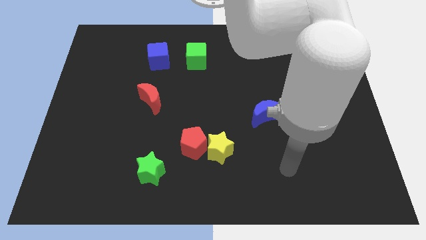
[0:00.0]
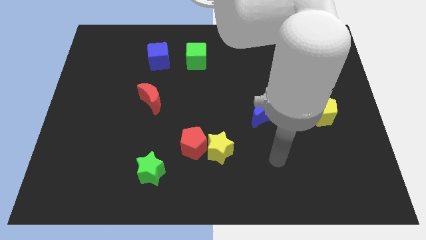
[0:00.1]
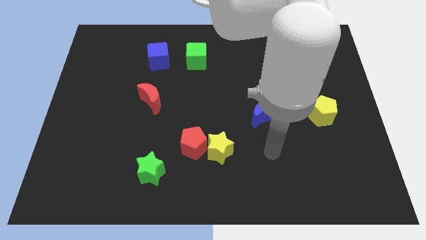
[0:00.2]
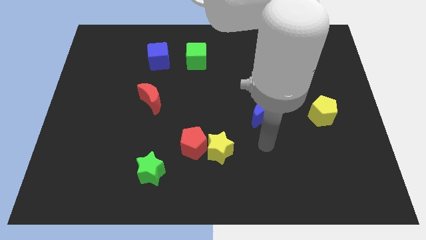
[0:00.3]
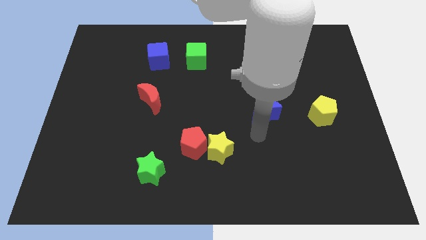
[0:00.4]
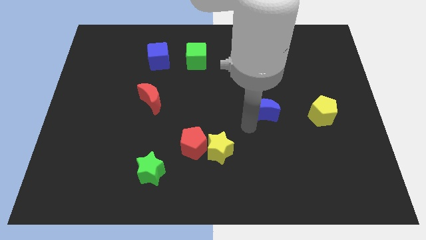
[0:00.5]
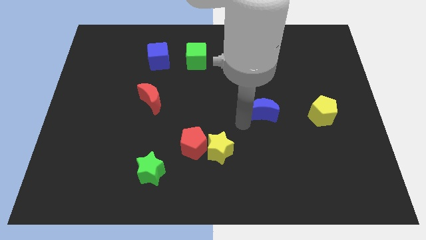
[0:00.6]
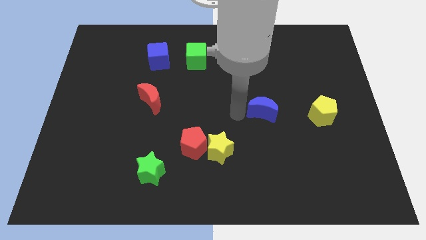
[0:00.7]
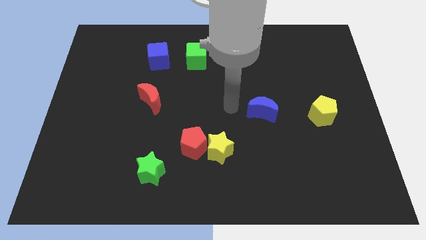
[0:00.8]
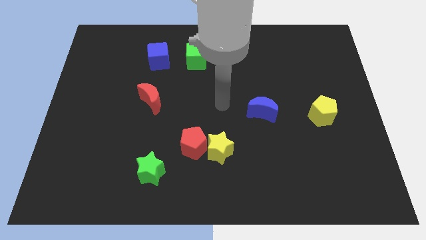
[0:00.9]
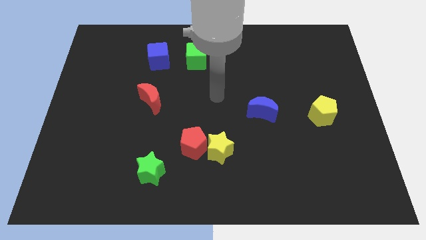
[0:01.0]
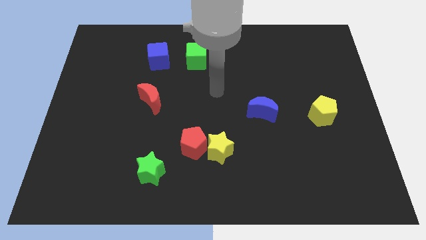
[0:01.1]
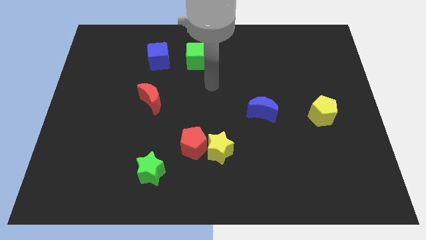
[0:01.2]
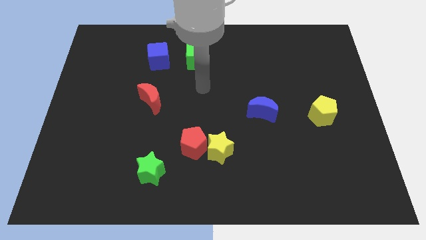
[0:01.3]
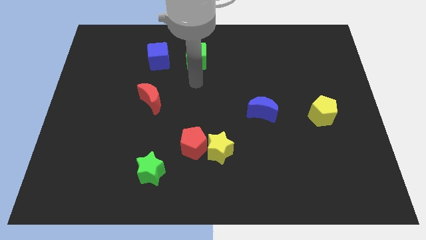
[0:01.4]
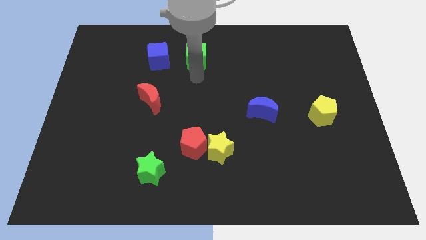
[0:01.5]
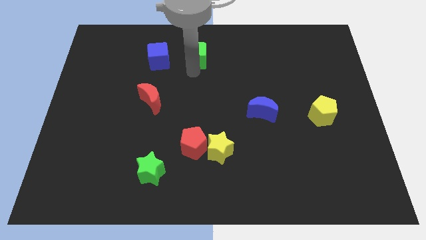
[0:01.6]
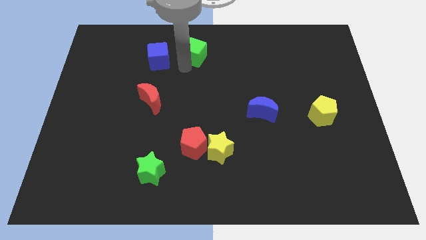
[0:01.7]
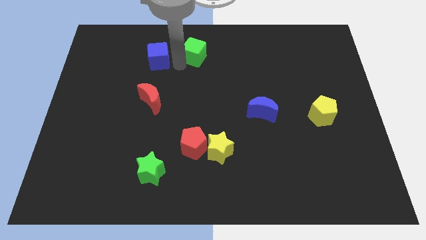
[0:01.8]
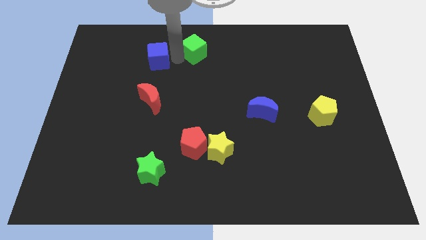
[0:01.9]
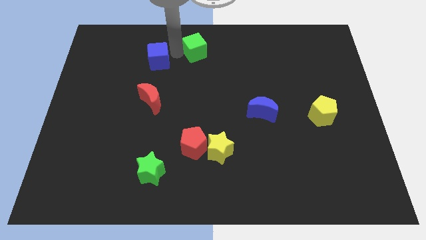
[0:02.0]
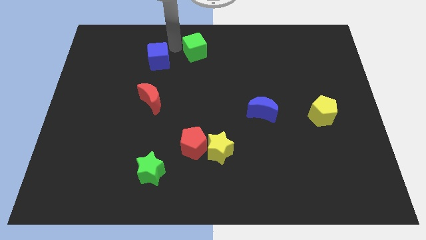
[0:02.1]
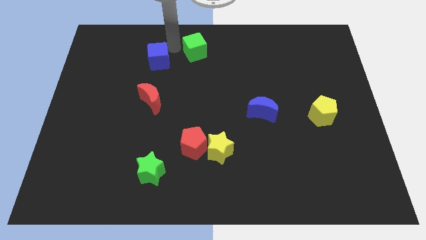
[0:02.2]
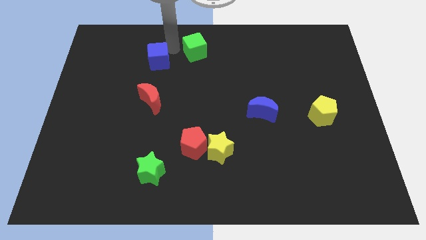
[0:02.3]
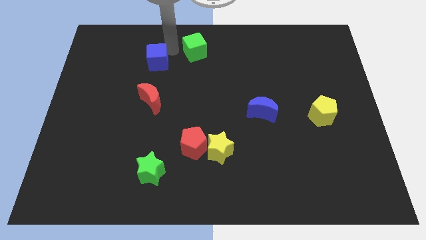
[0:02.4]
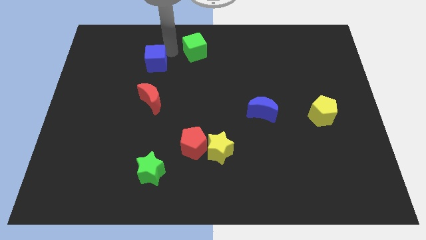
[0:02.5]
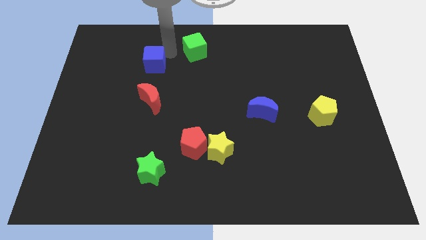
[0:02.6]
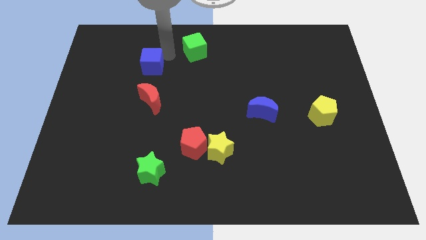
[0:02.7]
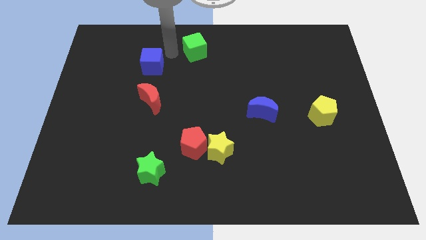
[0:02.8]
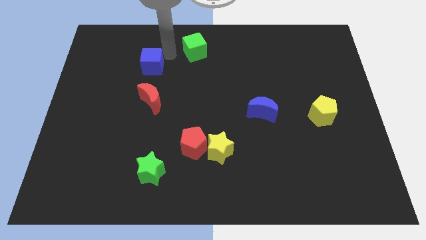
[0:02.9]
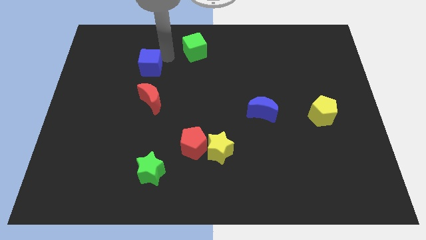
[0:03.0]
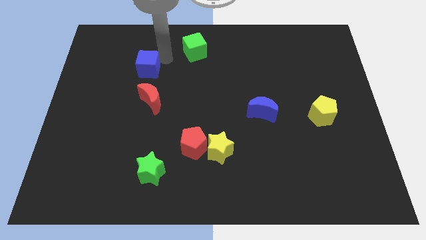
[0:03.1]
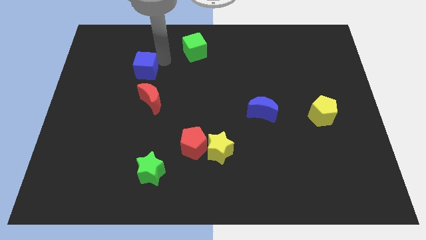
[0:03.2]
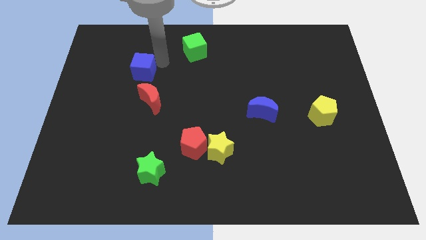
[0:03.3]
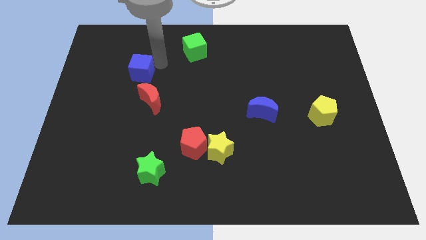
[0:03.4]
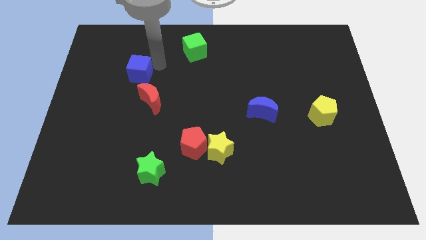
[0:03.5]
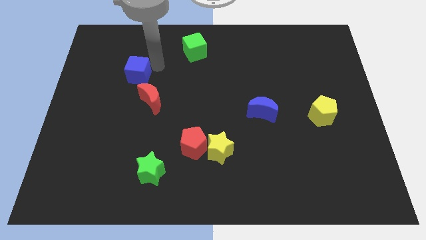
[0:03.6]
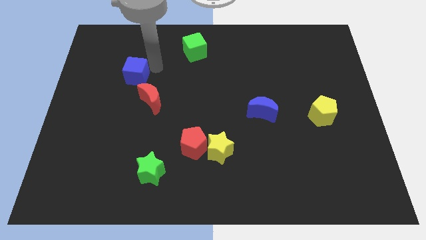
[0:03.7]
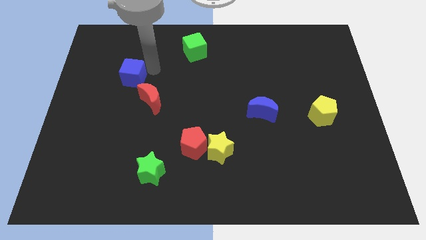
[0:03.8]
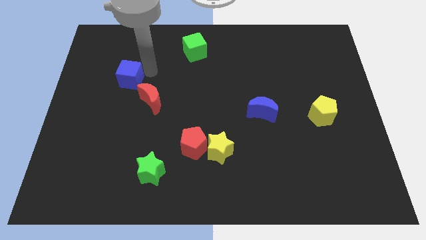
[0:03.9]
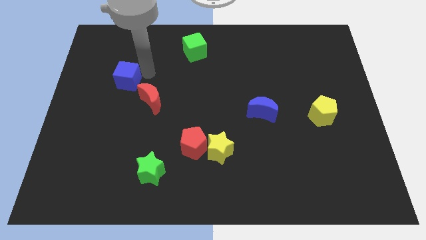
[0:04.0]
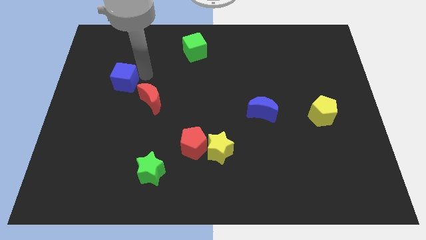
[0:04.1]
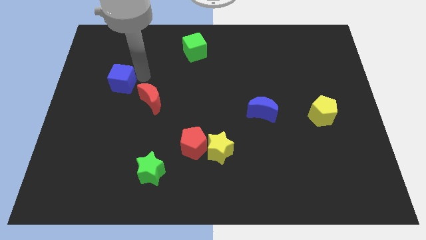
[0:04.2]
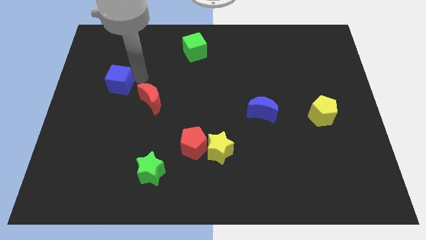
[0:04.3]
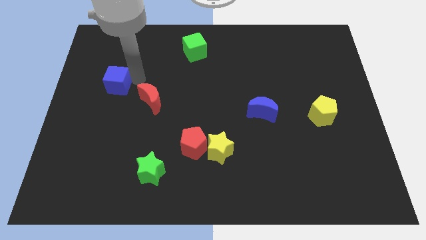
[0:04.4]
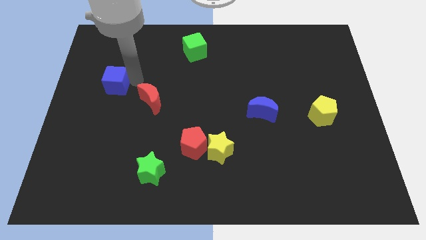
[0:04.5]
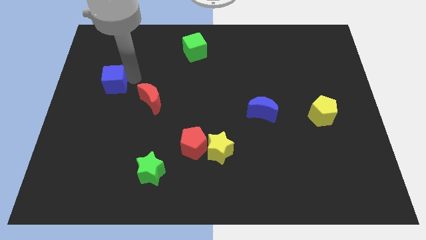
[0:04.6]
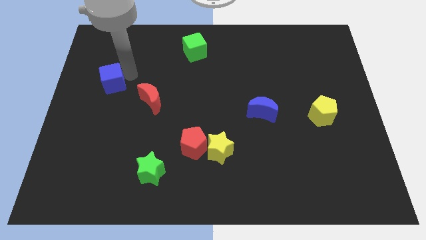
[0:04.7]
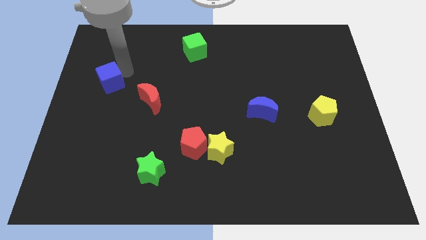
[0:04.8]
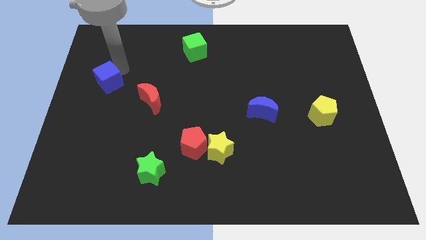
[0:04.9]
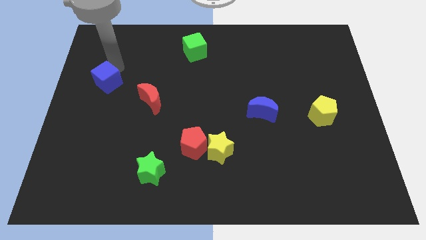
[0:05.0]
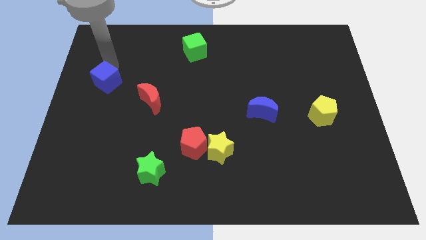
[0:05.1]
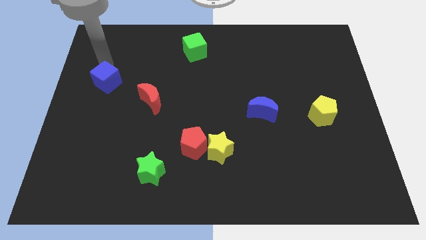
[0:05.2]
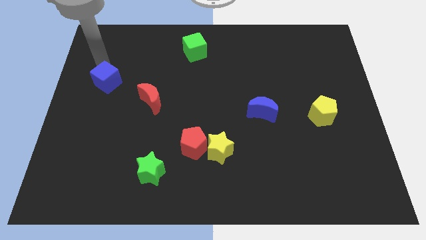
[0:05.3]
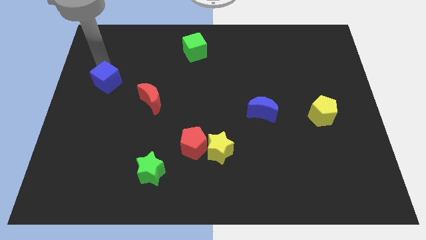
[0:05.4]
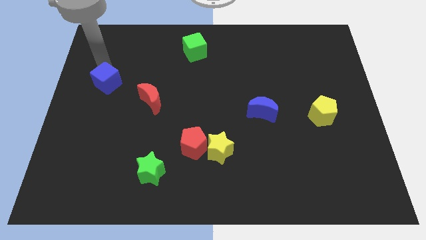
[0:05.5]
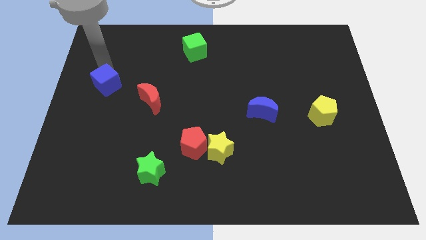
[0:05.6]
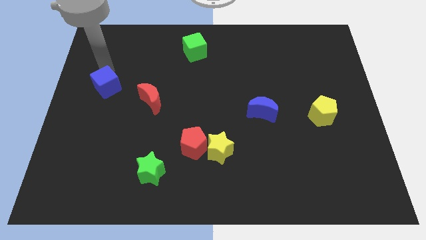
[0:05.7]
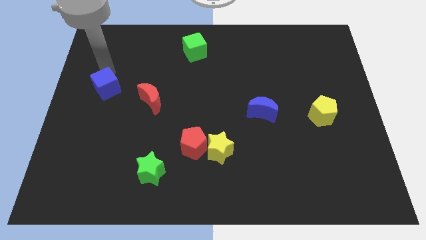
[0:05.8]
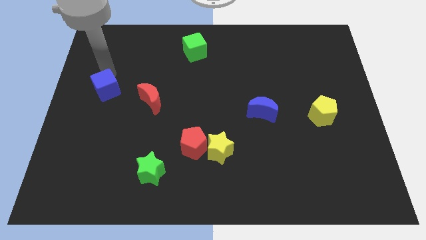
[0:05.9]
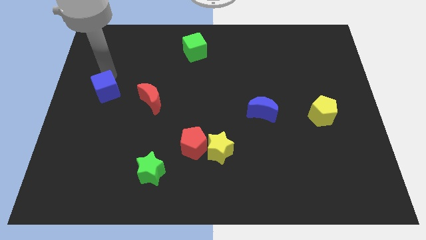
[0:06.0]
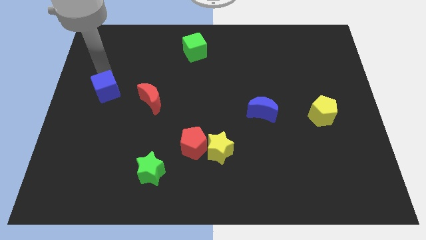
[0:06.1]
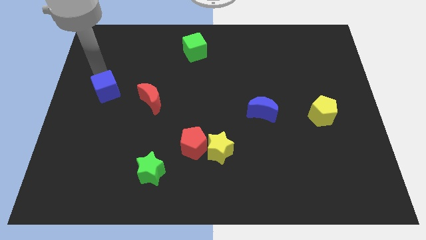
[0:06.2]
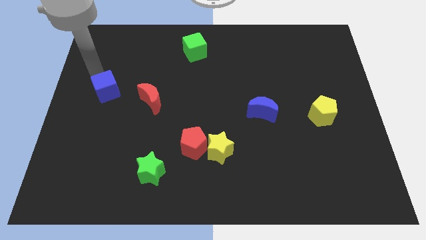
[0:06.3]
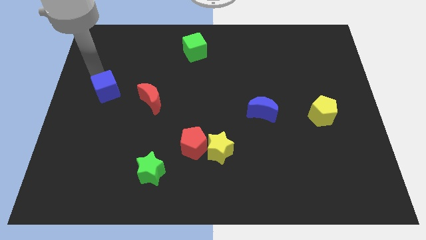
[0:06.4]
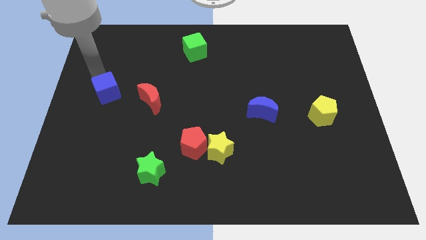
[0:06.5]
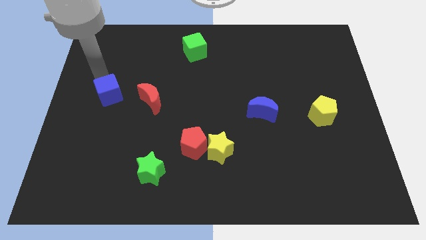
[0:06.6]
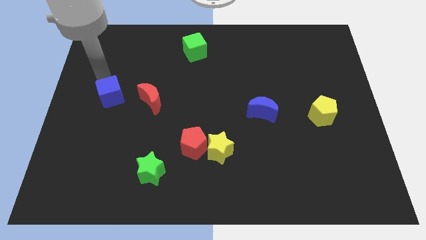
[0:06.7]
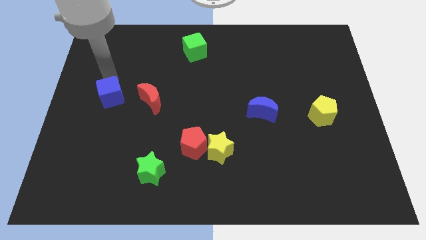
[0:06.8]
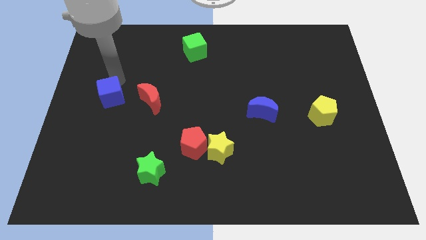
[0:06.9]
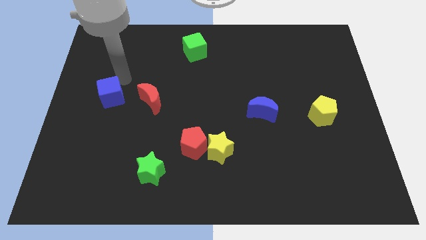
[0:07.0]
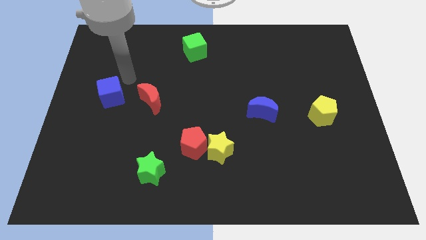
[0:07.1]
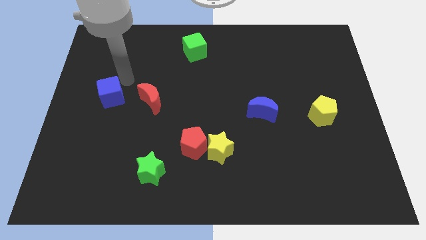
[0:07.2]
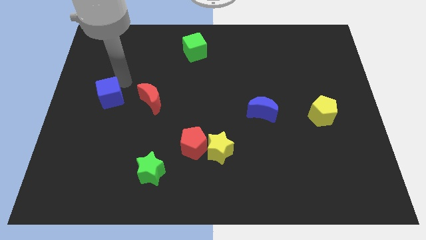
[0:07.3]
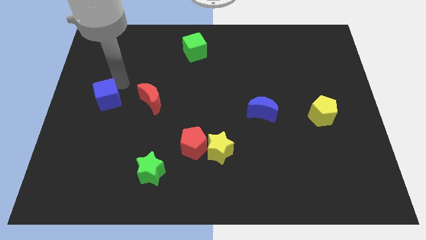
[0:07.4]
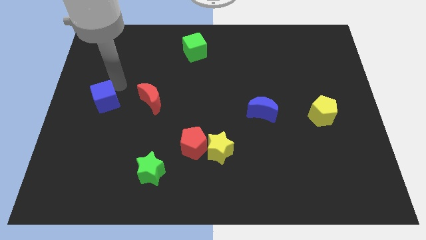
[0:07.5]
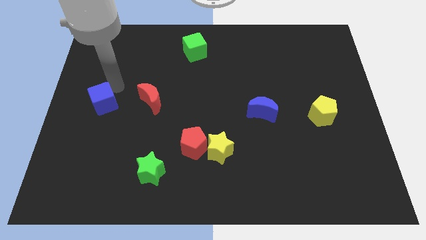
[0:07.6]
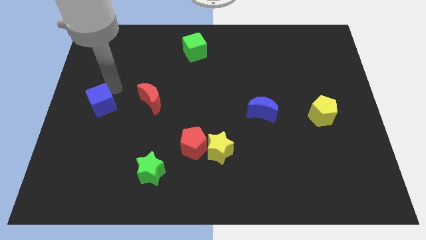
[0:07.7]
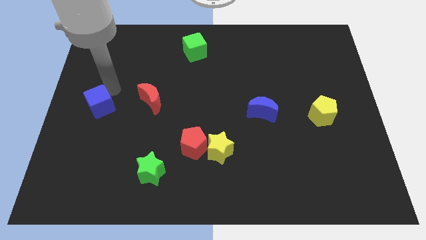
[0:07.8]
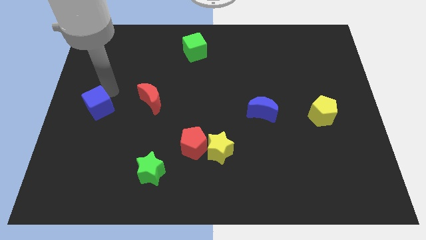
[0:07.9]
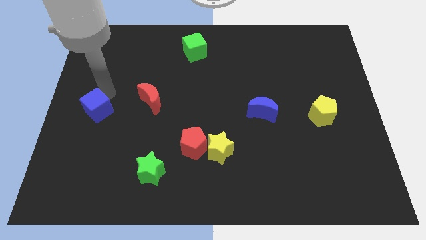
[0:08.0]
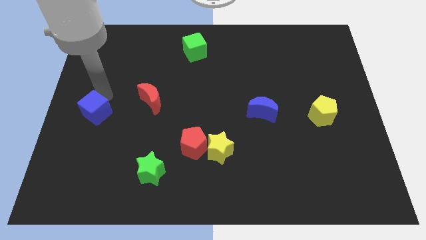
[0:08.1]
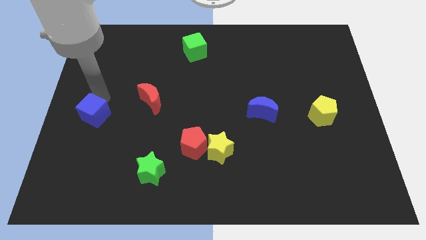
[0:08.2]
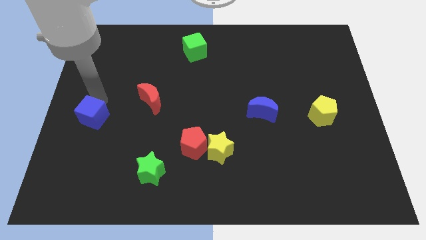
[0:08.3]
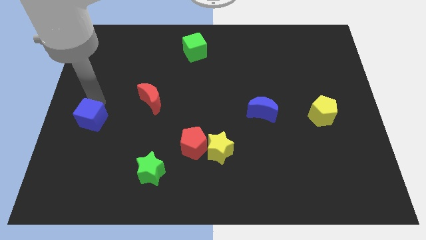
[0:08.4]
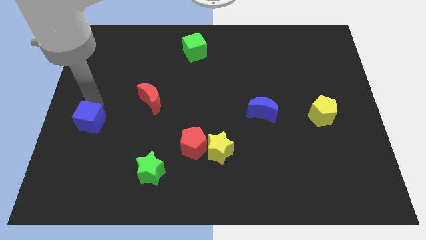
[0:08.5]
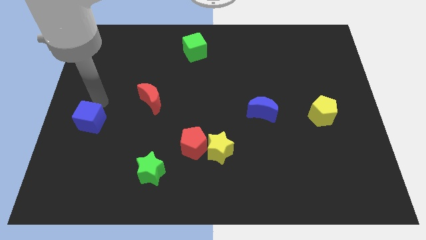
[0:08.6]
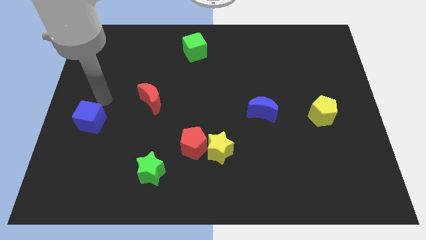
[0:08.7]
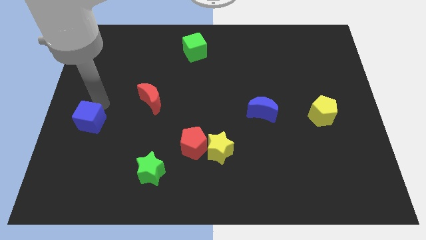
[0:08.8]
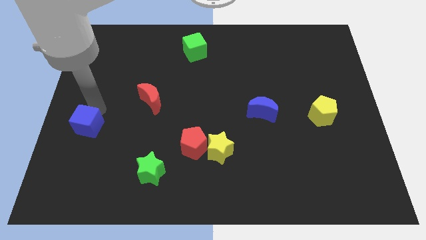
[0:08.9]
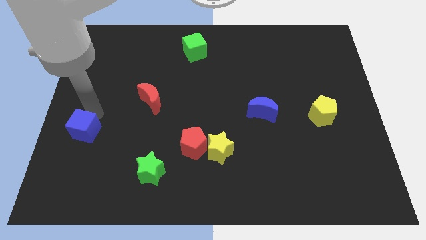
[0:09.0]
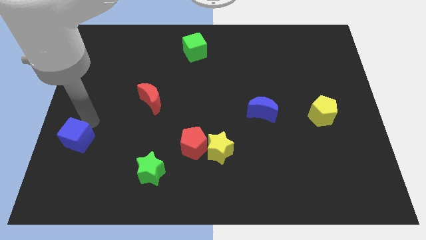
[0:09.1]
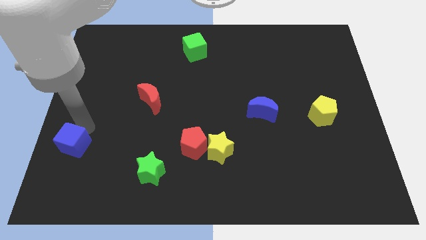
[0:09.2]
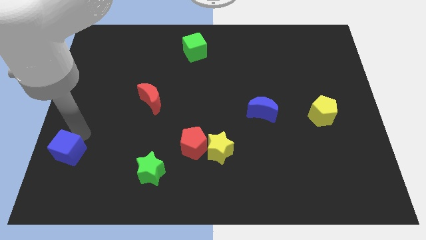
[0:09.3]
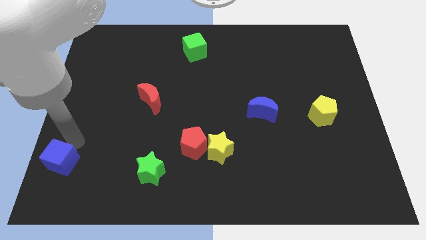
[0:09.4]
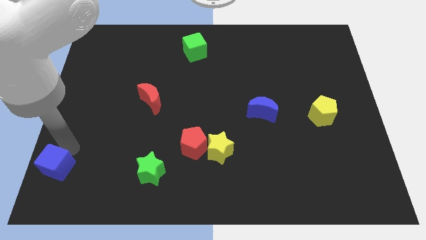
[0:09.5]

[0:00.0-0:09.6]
push the blue cube to the bottom left of the board
